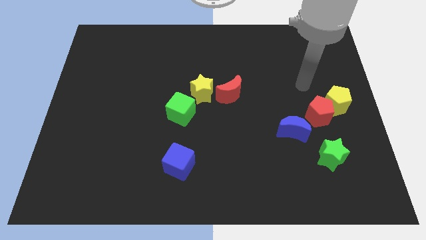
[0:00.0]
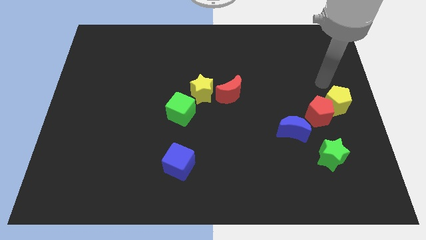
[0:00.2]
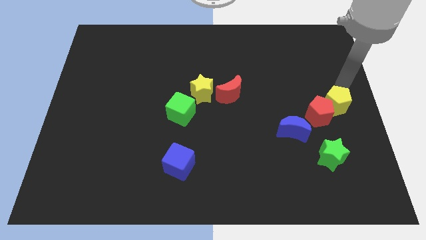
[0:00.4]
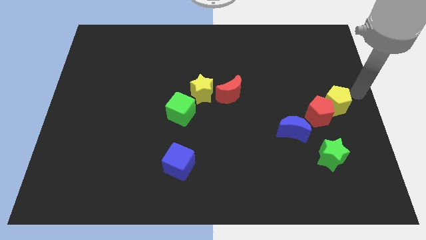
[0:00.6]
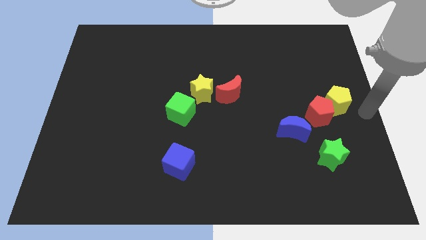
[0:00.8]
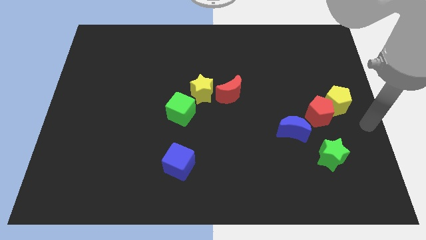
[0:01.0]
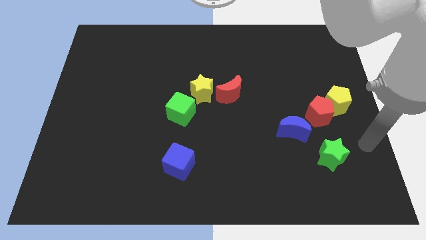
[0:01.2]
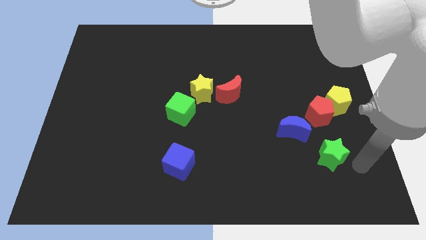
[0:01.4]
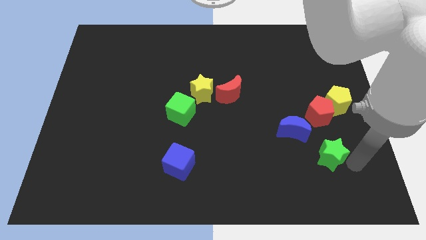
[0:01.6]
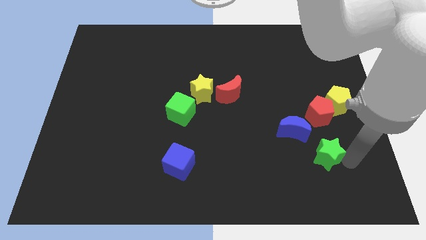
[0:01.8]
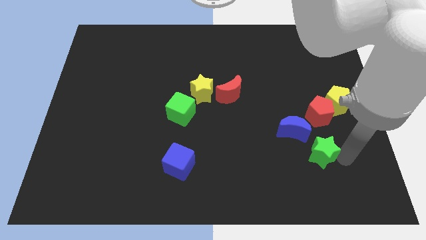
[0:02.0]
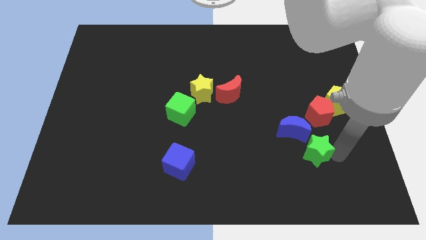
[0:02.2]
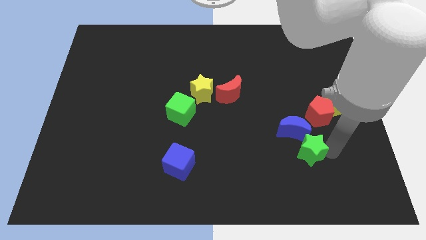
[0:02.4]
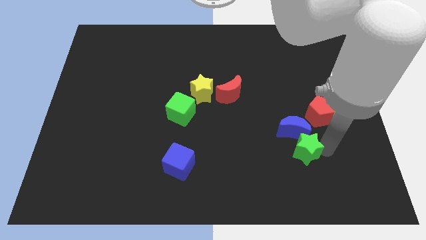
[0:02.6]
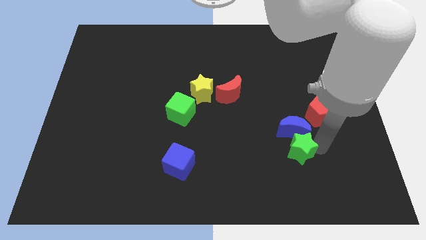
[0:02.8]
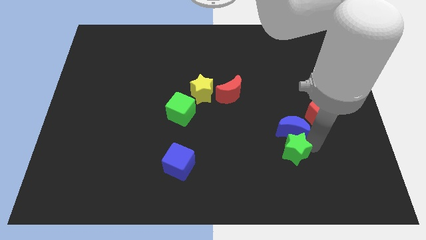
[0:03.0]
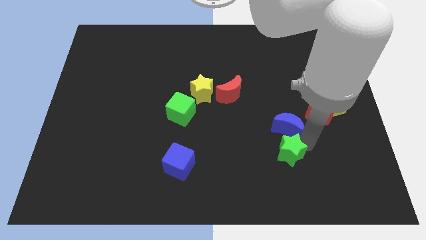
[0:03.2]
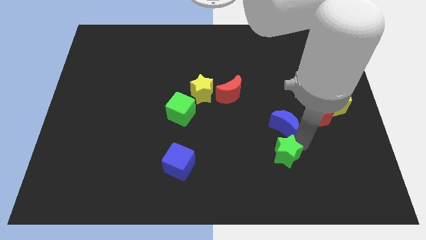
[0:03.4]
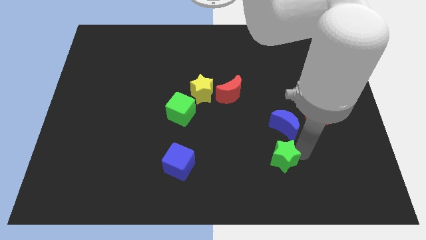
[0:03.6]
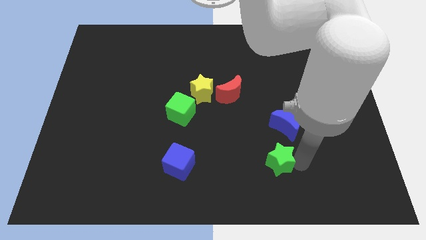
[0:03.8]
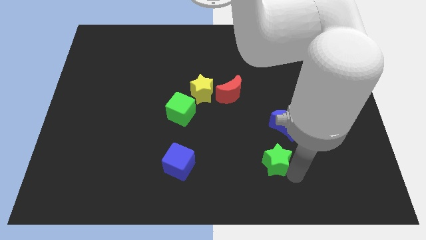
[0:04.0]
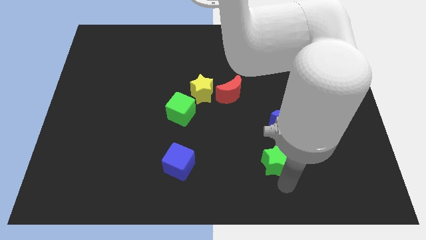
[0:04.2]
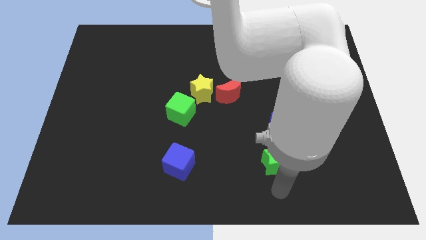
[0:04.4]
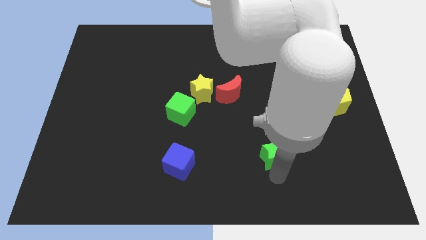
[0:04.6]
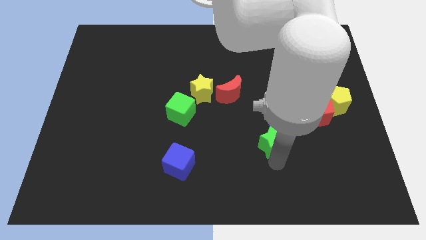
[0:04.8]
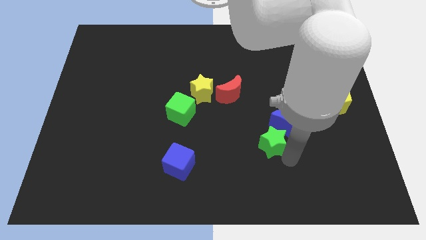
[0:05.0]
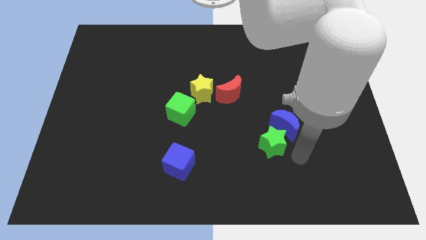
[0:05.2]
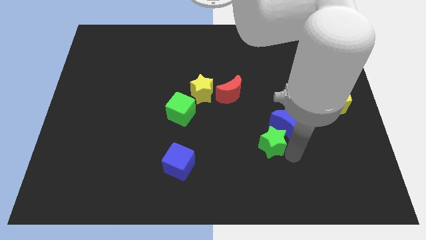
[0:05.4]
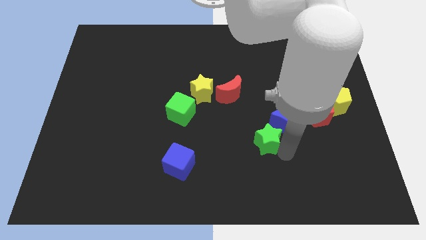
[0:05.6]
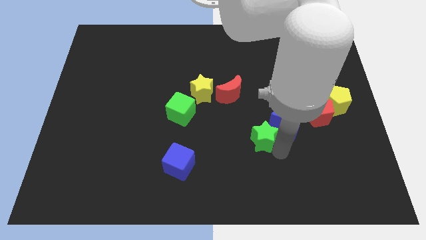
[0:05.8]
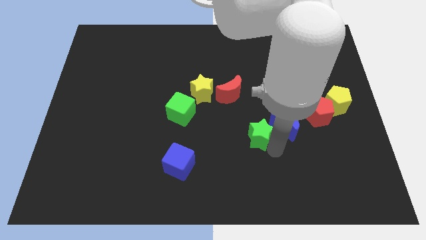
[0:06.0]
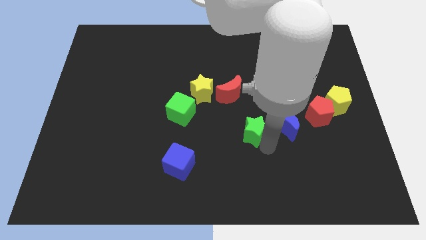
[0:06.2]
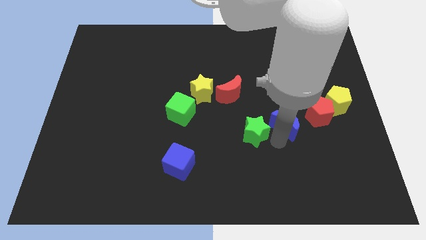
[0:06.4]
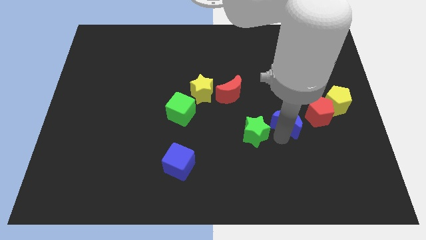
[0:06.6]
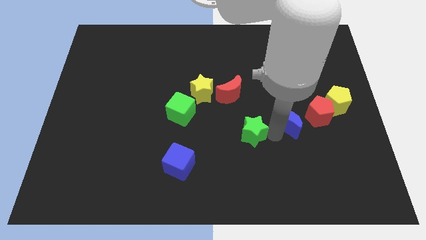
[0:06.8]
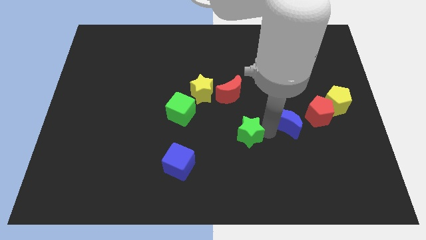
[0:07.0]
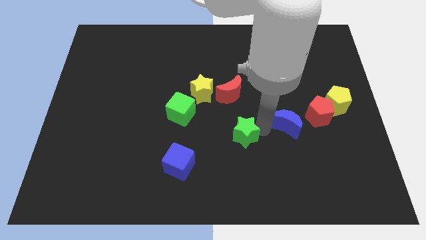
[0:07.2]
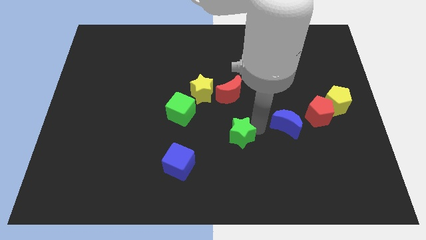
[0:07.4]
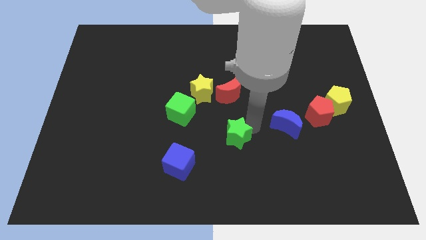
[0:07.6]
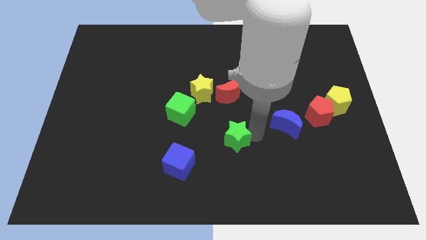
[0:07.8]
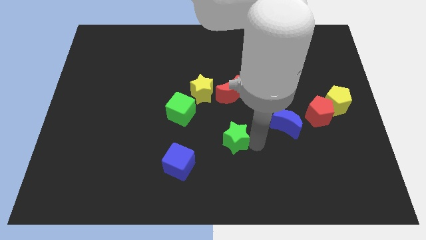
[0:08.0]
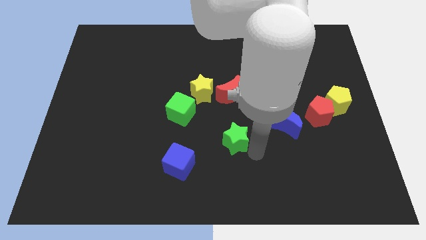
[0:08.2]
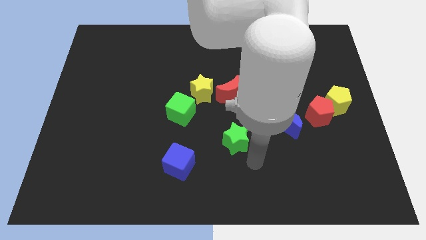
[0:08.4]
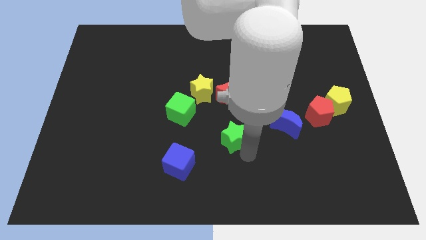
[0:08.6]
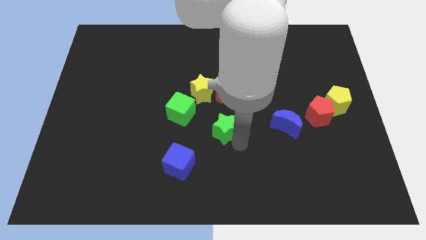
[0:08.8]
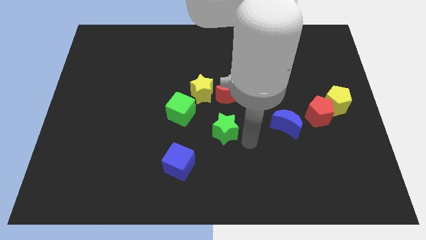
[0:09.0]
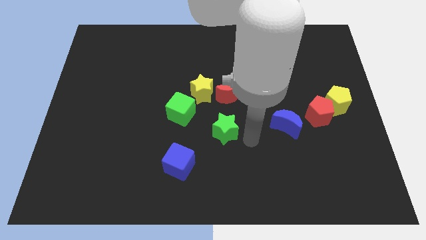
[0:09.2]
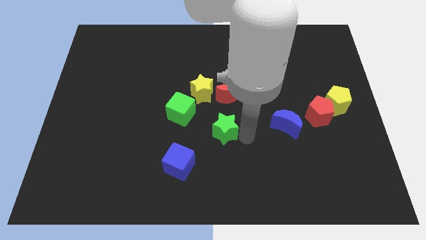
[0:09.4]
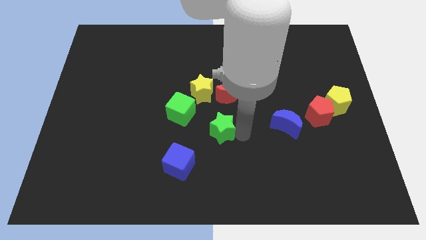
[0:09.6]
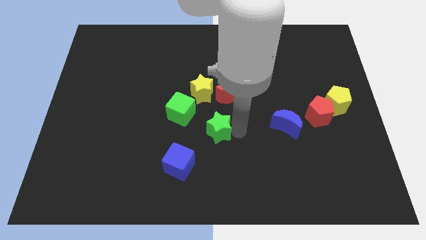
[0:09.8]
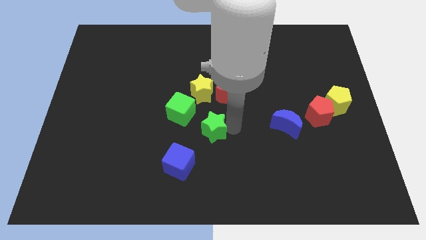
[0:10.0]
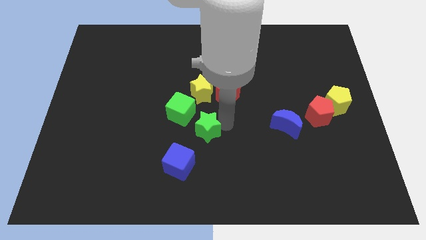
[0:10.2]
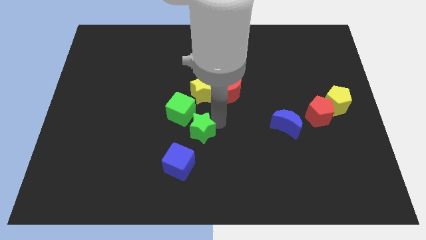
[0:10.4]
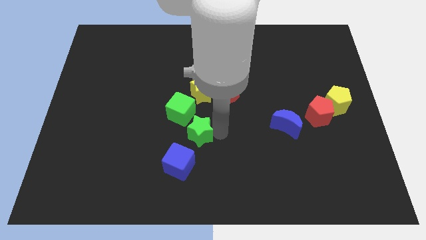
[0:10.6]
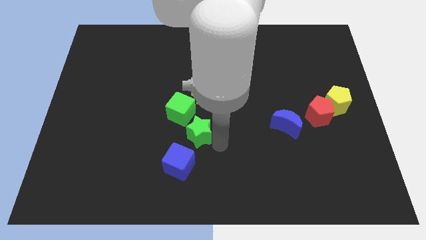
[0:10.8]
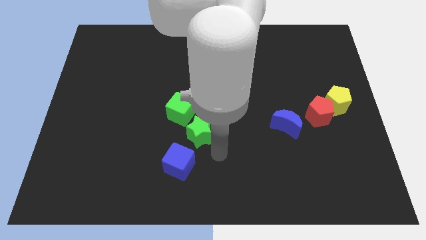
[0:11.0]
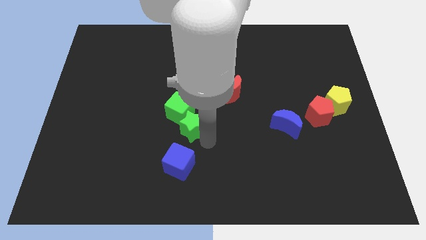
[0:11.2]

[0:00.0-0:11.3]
put the green star next to the green cube

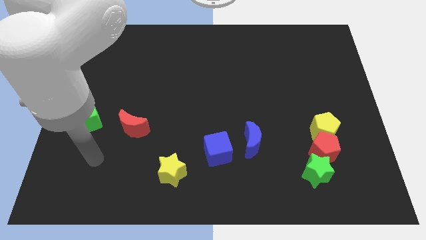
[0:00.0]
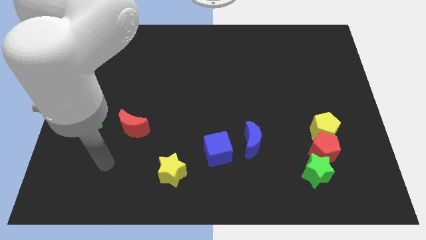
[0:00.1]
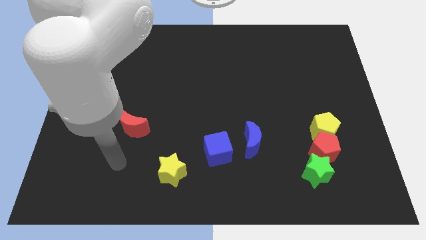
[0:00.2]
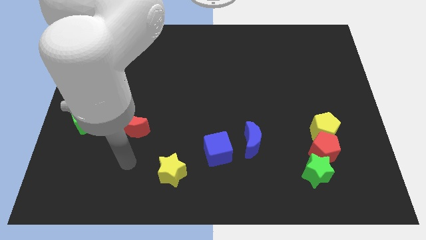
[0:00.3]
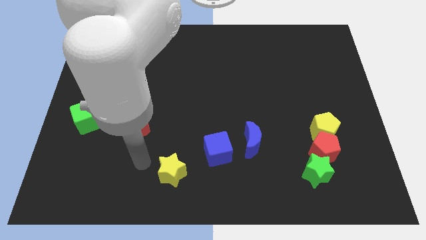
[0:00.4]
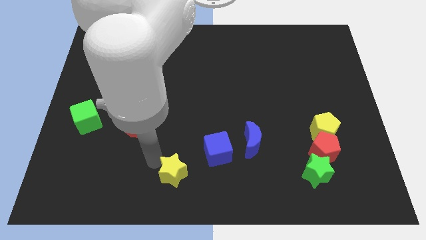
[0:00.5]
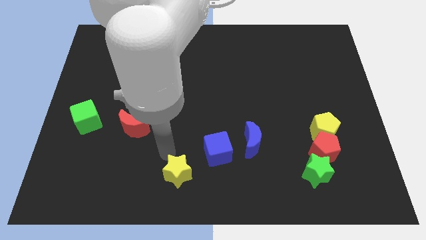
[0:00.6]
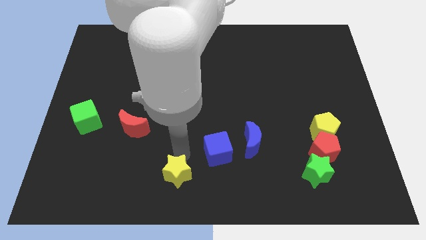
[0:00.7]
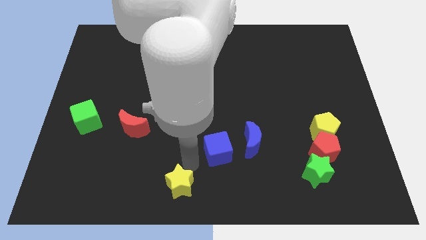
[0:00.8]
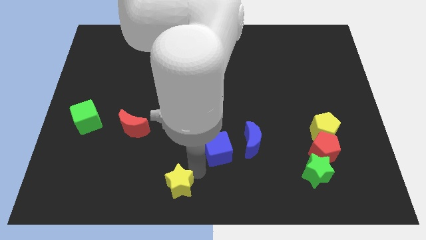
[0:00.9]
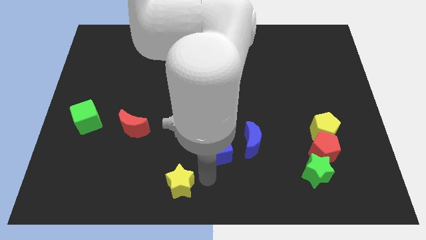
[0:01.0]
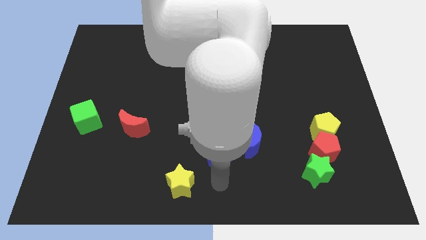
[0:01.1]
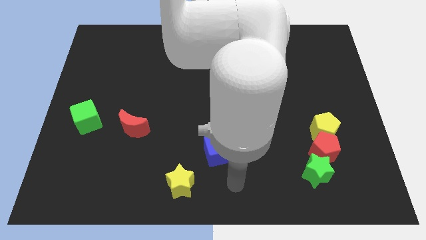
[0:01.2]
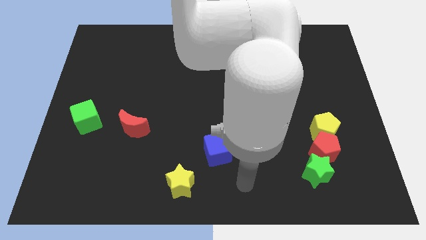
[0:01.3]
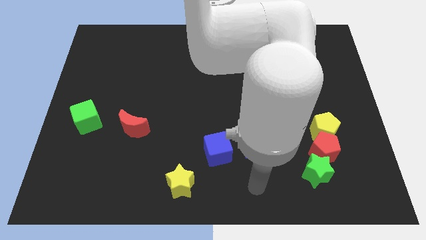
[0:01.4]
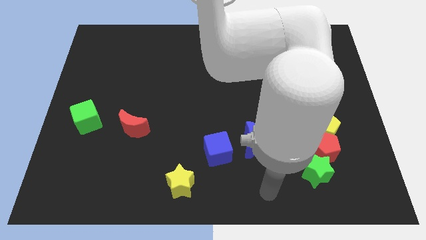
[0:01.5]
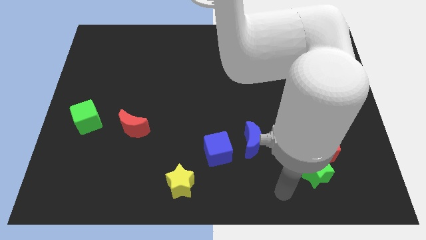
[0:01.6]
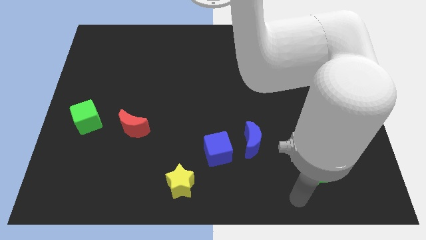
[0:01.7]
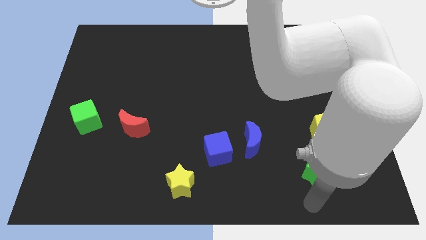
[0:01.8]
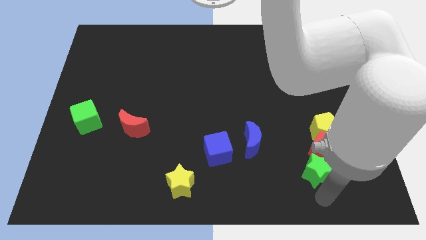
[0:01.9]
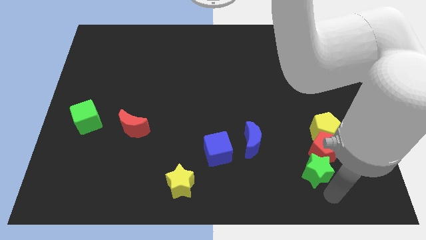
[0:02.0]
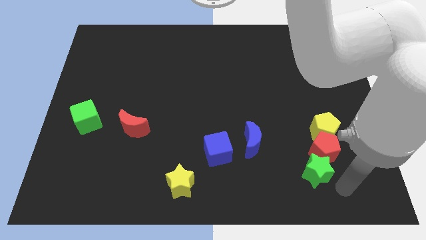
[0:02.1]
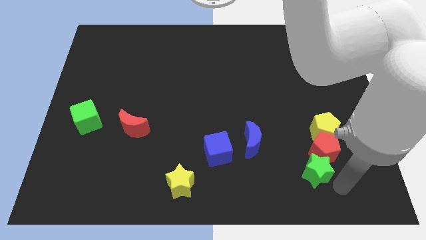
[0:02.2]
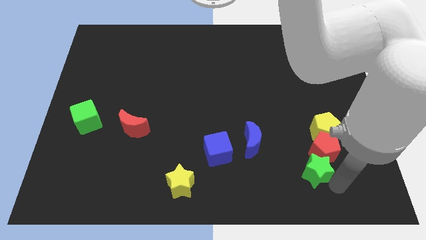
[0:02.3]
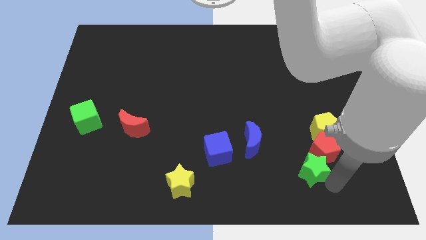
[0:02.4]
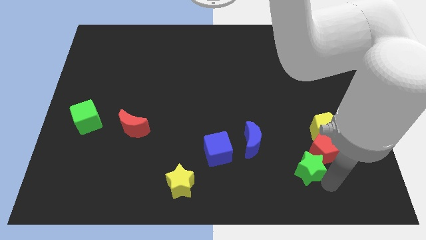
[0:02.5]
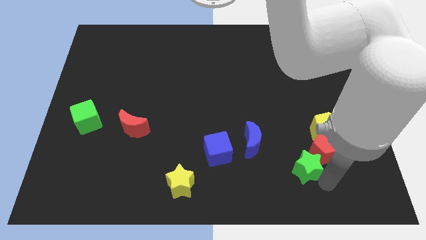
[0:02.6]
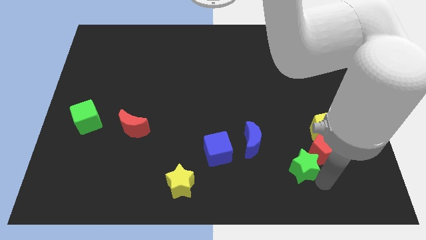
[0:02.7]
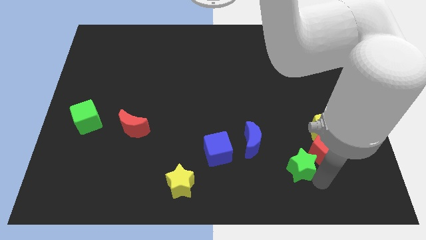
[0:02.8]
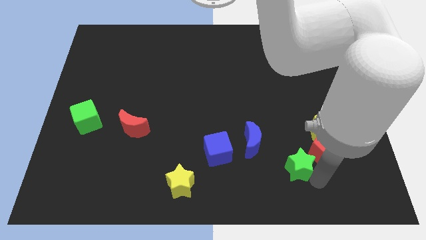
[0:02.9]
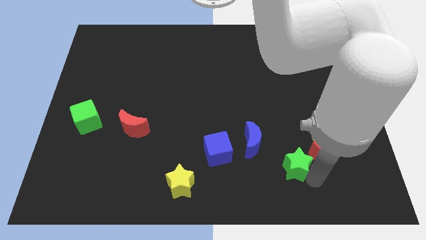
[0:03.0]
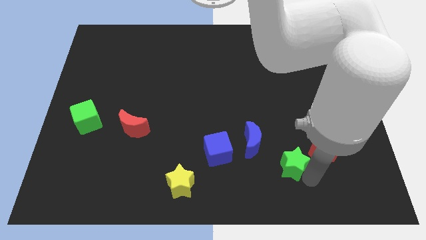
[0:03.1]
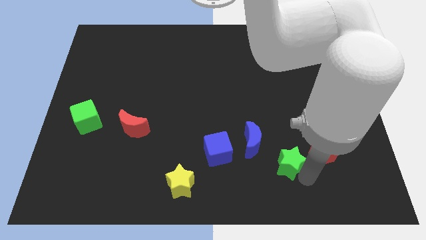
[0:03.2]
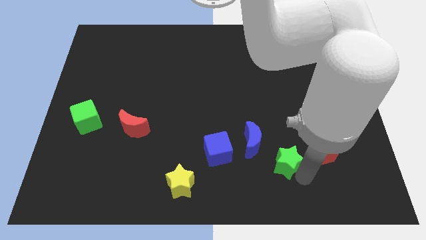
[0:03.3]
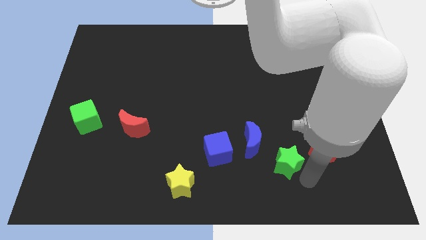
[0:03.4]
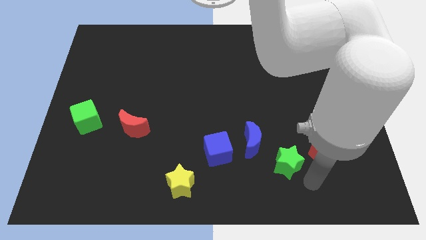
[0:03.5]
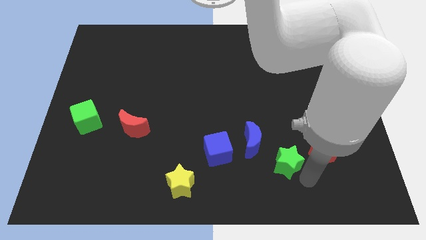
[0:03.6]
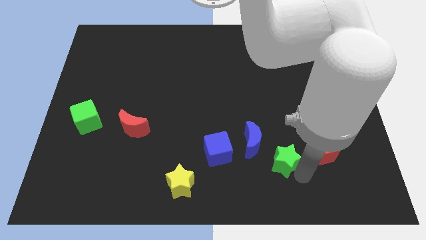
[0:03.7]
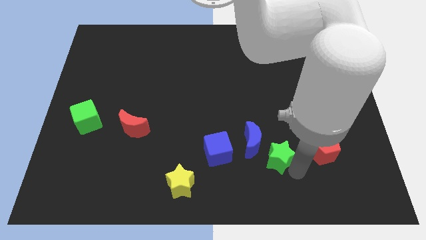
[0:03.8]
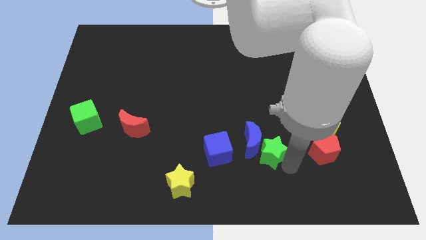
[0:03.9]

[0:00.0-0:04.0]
put the green star close to the blue moon
